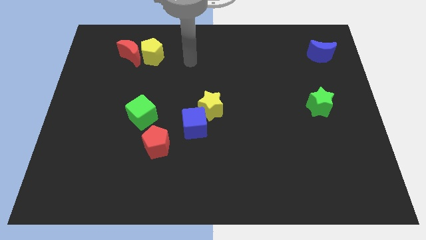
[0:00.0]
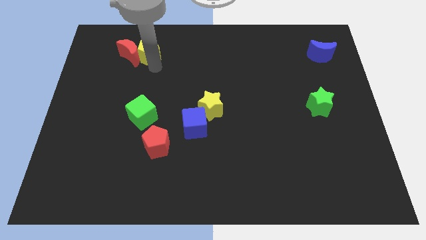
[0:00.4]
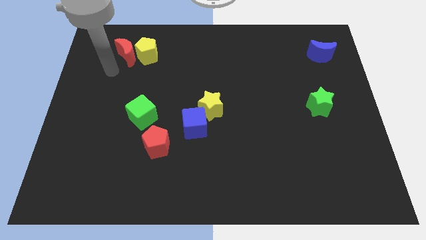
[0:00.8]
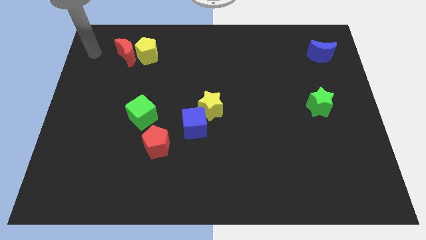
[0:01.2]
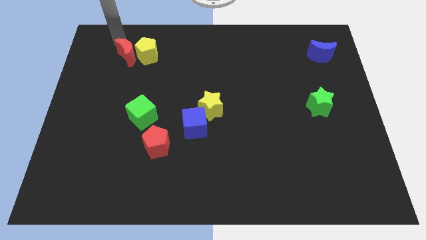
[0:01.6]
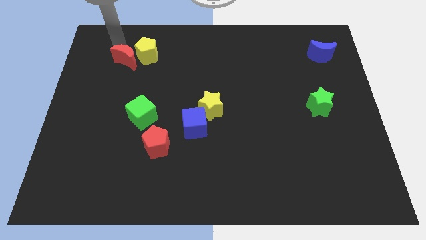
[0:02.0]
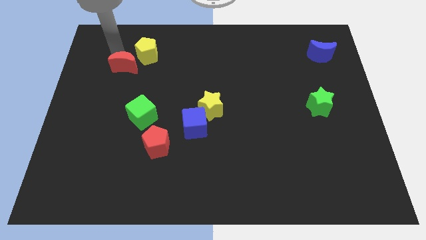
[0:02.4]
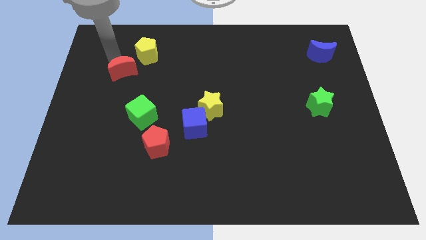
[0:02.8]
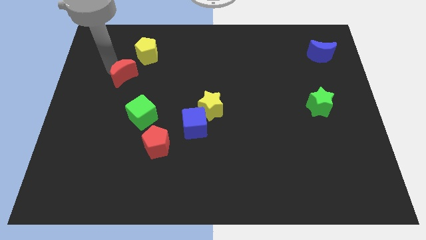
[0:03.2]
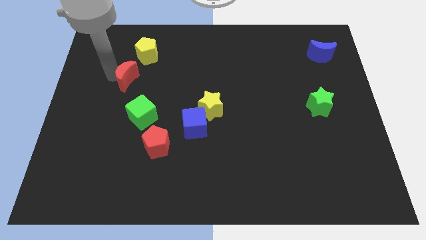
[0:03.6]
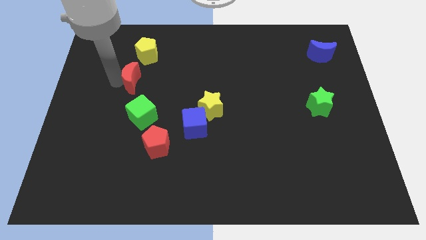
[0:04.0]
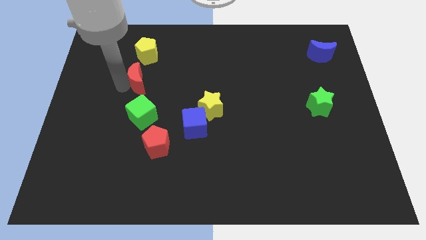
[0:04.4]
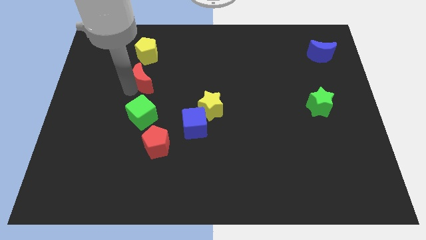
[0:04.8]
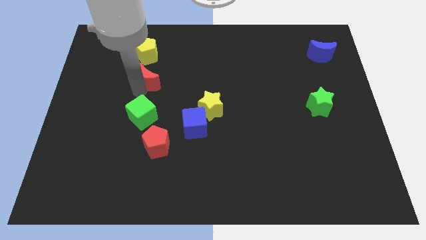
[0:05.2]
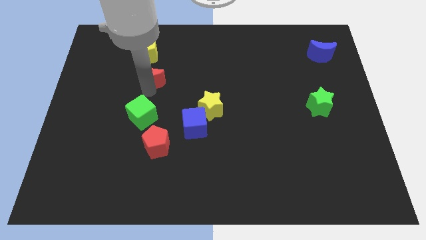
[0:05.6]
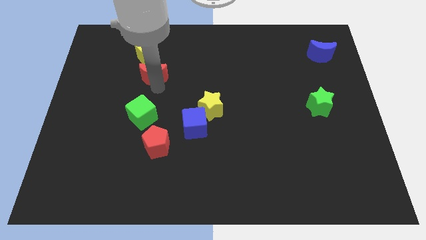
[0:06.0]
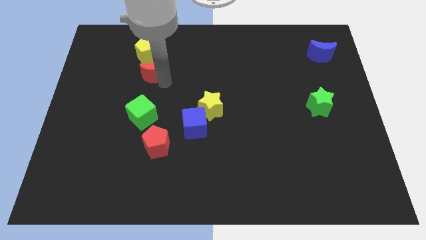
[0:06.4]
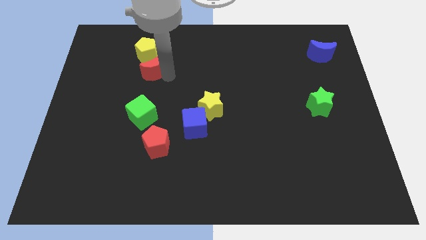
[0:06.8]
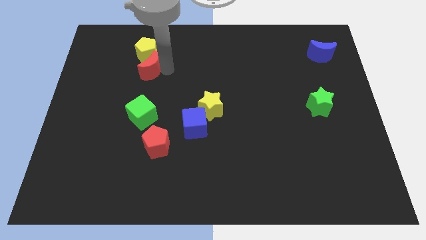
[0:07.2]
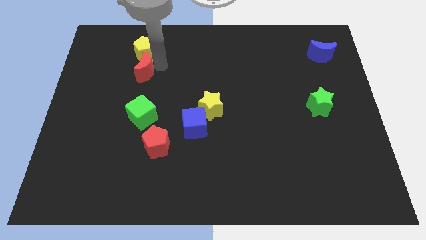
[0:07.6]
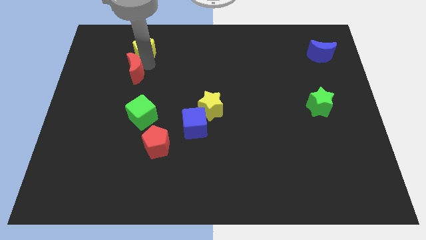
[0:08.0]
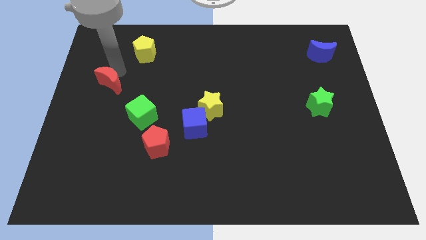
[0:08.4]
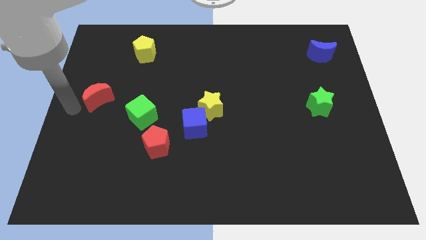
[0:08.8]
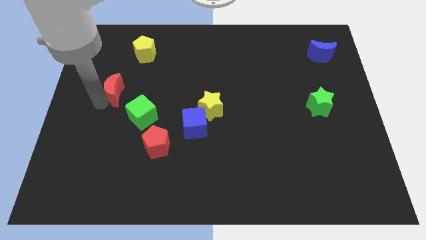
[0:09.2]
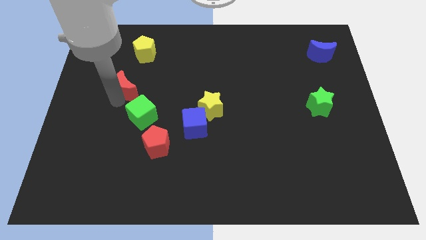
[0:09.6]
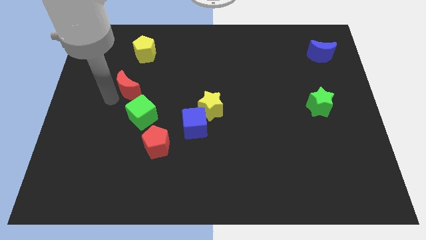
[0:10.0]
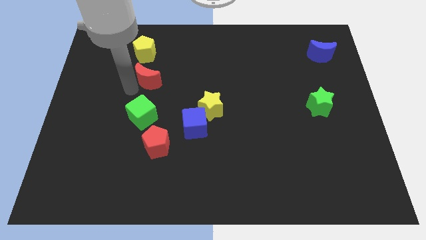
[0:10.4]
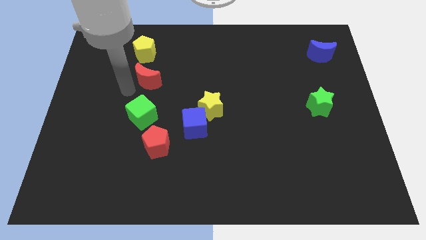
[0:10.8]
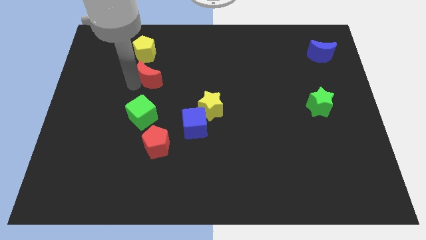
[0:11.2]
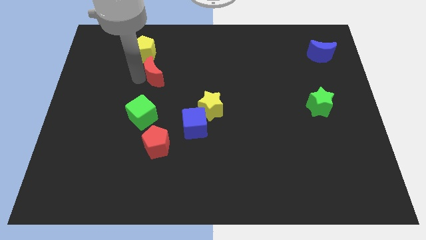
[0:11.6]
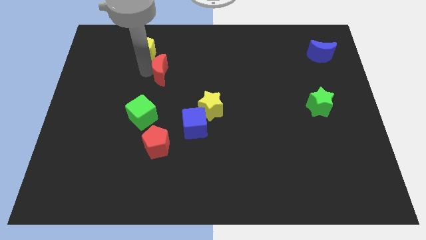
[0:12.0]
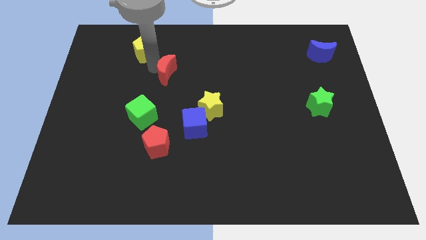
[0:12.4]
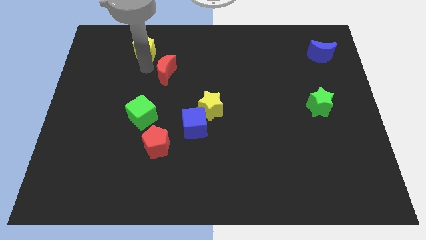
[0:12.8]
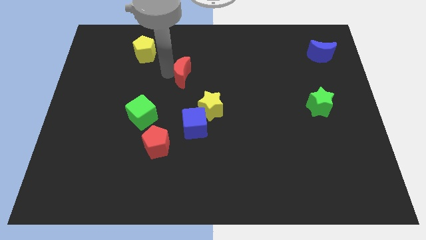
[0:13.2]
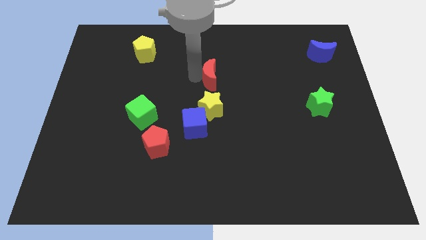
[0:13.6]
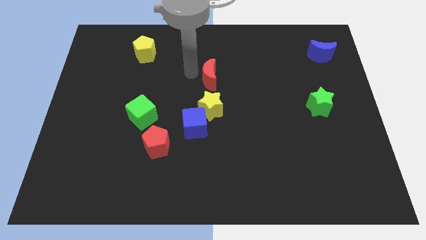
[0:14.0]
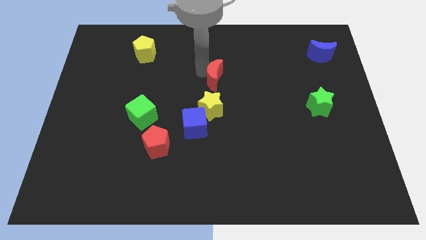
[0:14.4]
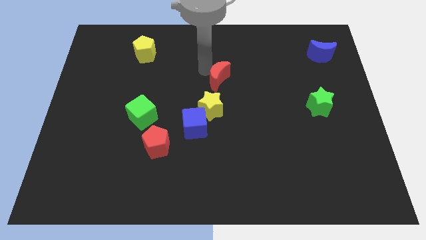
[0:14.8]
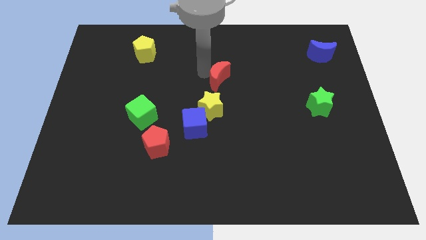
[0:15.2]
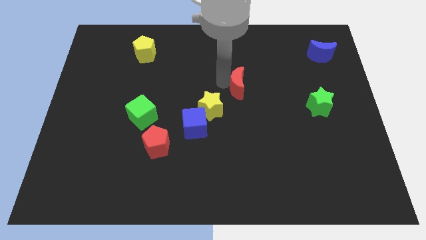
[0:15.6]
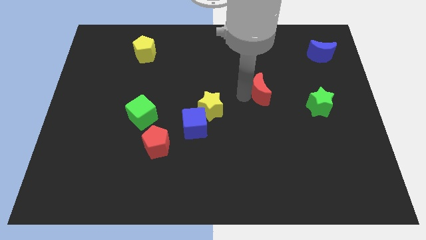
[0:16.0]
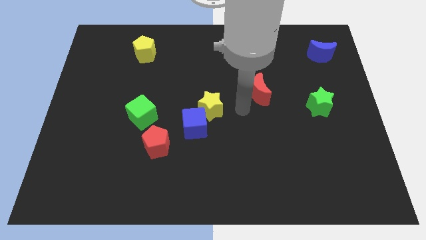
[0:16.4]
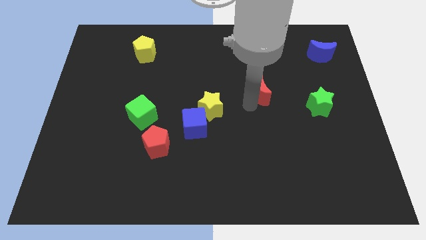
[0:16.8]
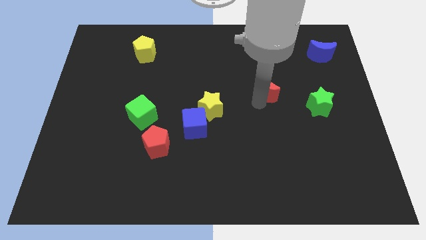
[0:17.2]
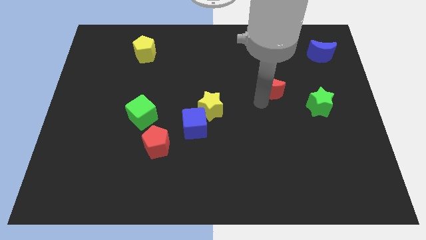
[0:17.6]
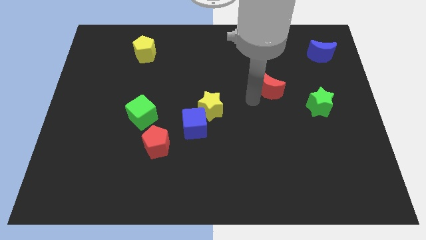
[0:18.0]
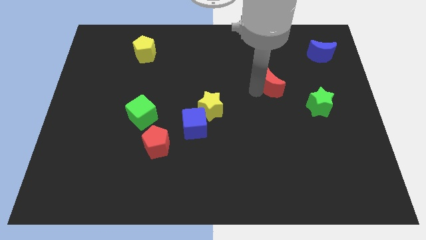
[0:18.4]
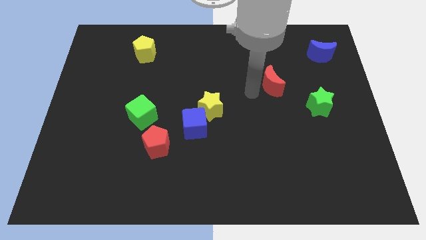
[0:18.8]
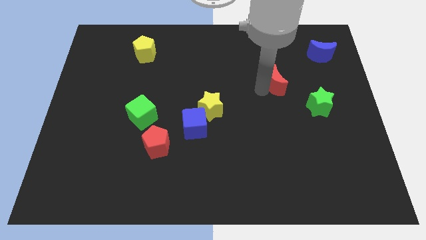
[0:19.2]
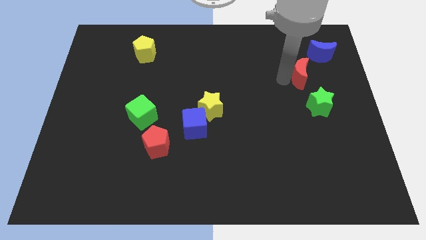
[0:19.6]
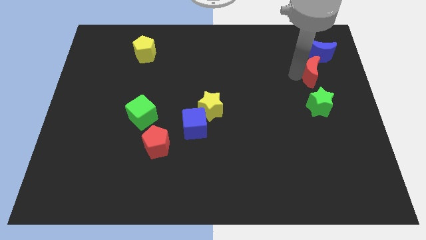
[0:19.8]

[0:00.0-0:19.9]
move the red moon below the blue moon

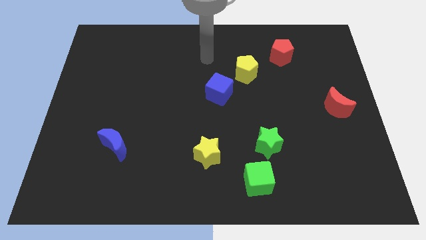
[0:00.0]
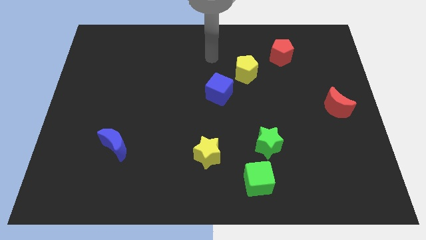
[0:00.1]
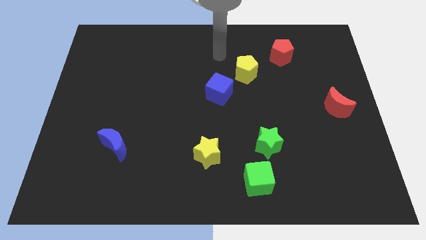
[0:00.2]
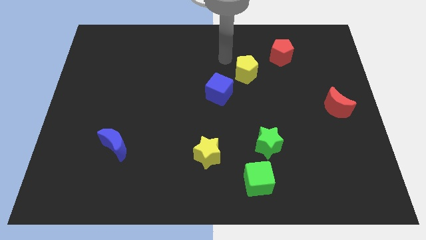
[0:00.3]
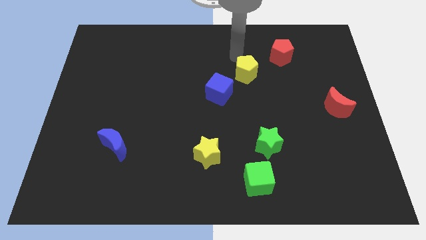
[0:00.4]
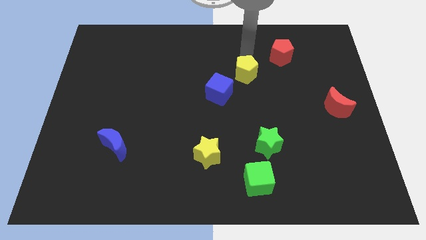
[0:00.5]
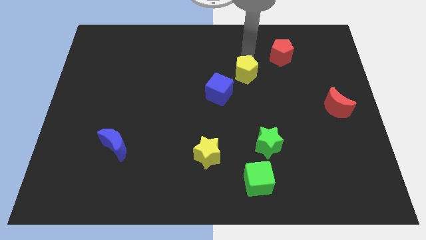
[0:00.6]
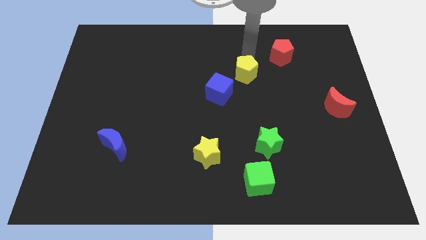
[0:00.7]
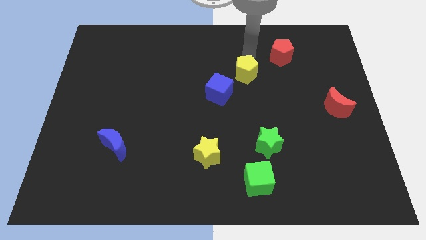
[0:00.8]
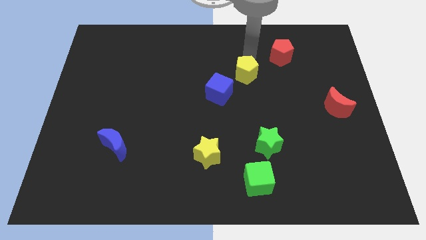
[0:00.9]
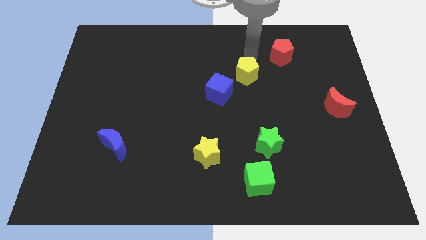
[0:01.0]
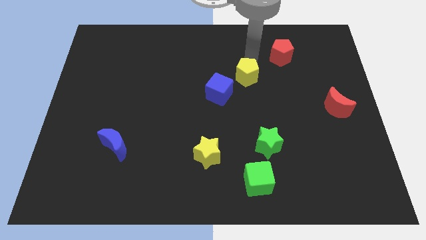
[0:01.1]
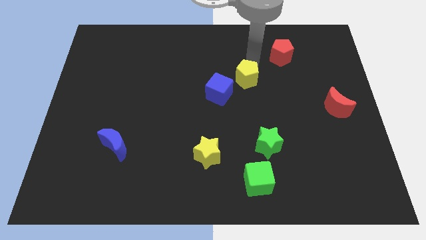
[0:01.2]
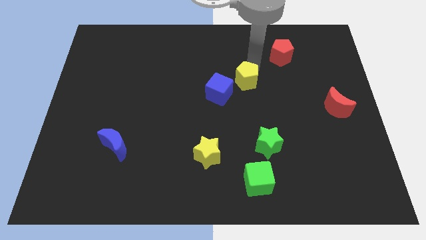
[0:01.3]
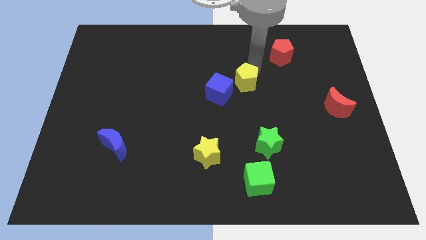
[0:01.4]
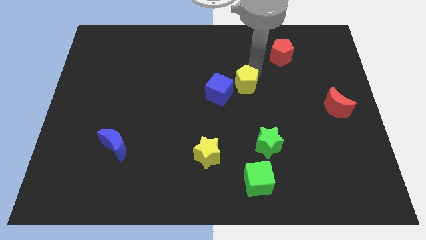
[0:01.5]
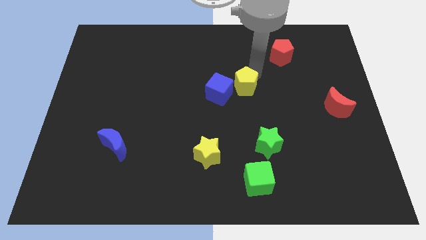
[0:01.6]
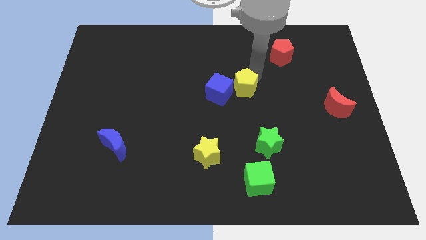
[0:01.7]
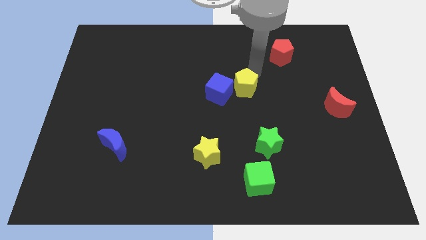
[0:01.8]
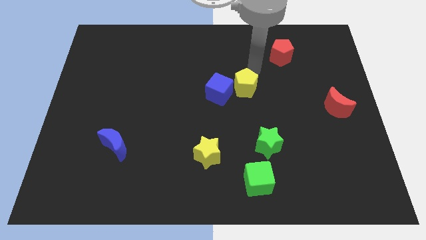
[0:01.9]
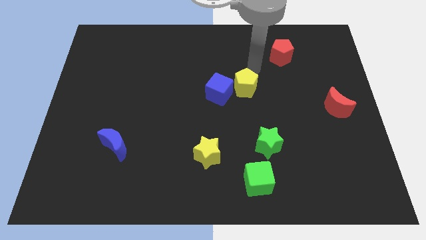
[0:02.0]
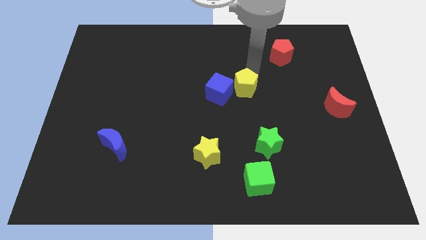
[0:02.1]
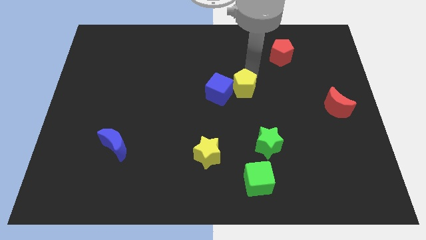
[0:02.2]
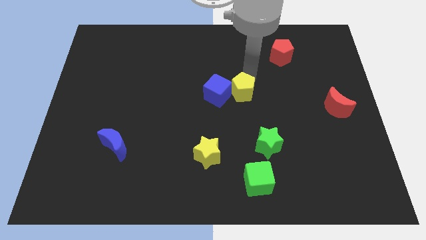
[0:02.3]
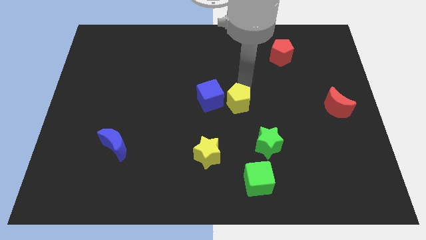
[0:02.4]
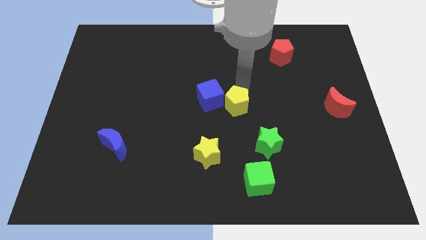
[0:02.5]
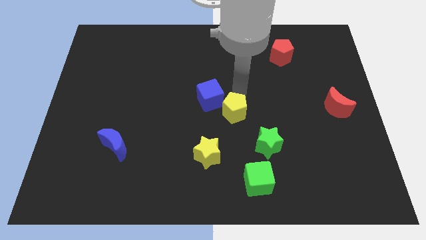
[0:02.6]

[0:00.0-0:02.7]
put the yellow pentagon to the top left of the green star

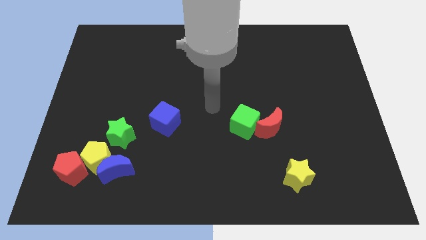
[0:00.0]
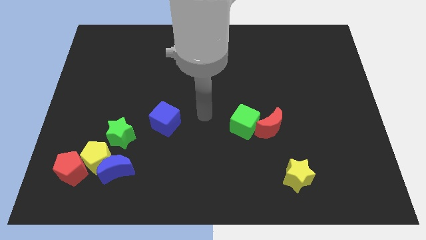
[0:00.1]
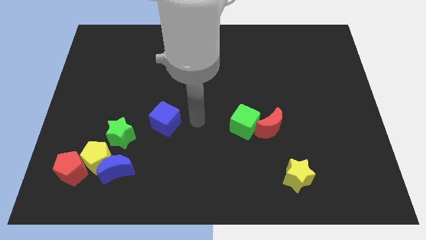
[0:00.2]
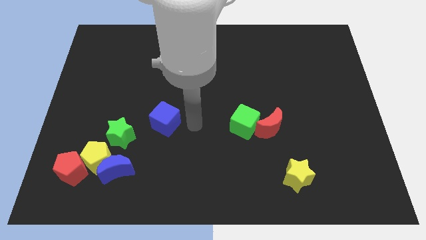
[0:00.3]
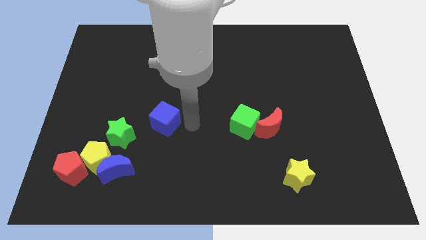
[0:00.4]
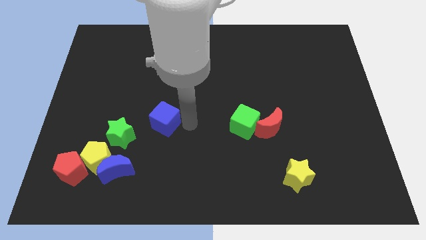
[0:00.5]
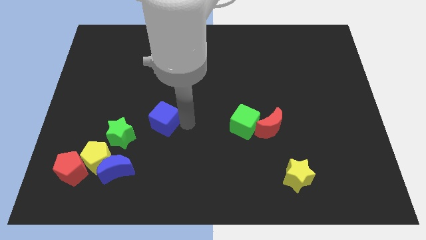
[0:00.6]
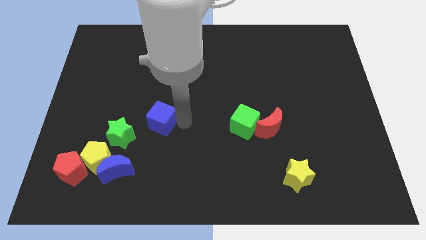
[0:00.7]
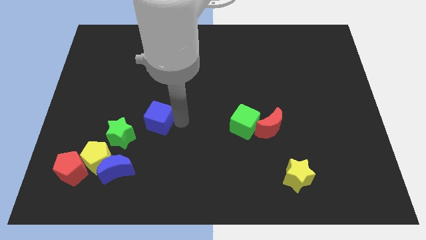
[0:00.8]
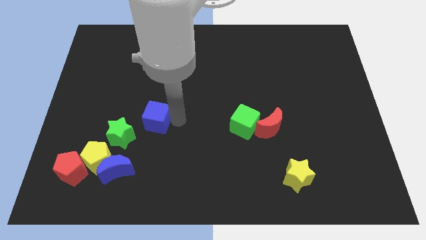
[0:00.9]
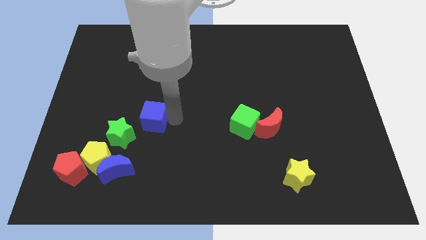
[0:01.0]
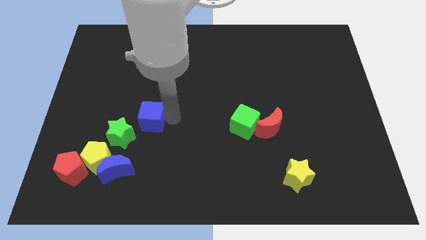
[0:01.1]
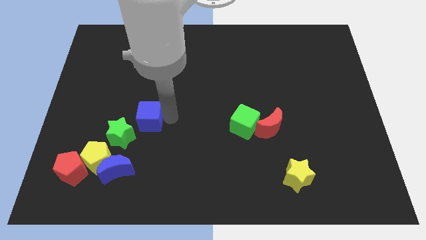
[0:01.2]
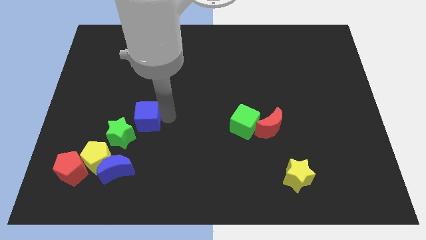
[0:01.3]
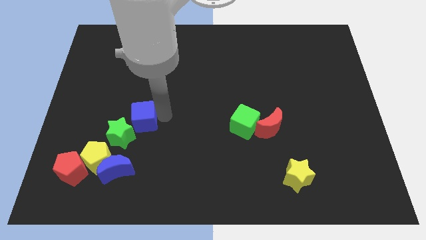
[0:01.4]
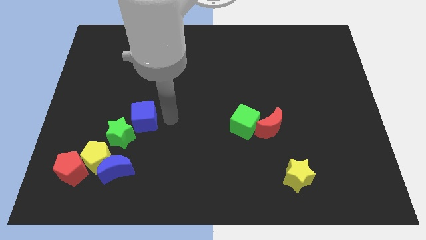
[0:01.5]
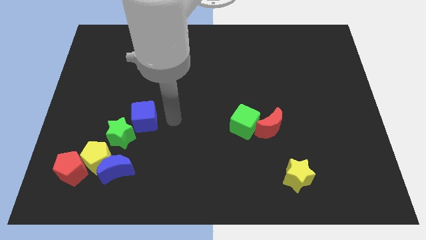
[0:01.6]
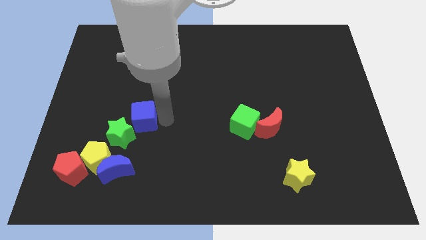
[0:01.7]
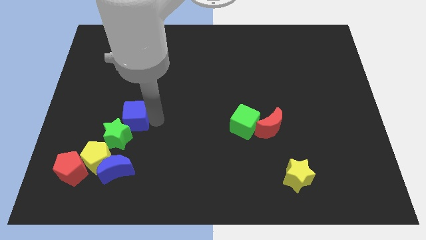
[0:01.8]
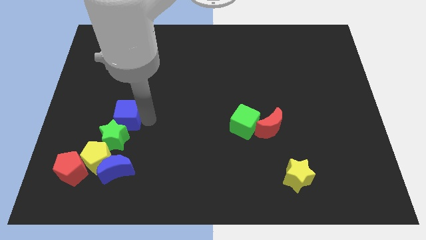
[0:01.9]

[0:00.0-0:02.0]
move the blue cube to the top side of the yellow pentagon
